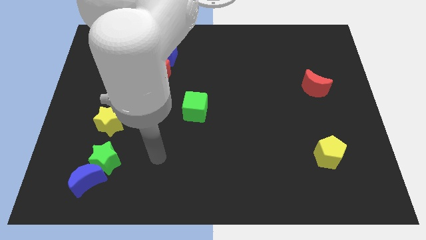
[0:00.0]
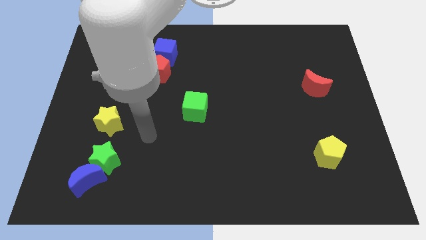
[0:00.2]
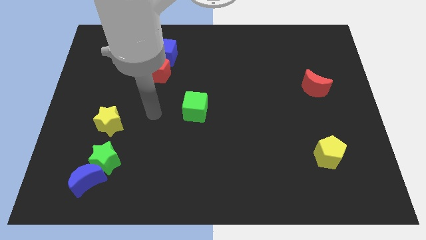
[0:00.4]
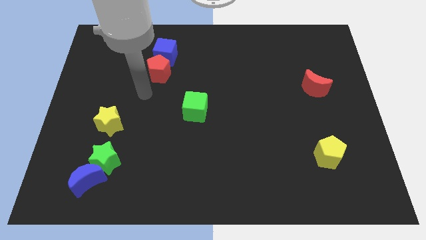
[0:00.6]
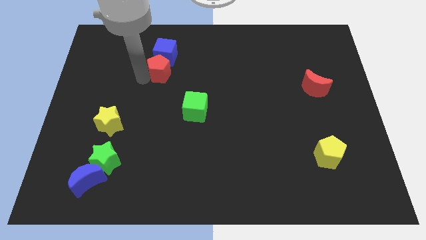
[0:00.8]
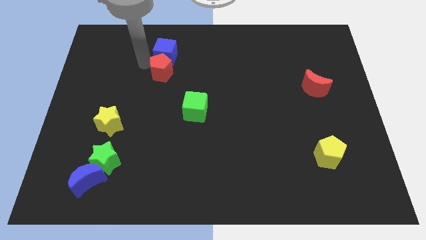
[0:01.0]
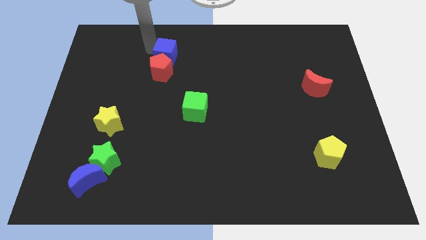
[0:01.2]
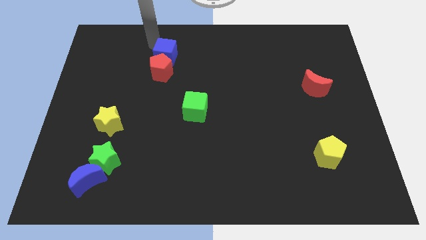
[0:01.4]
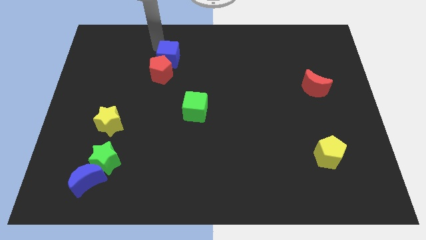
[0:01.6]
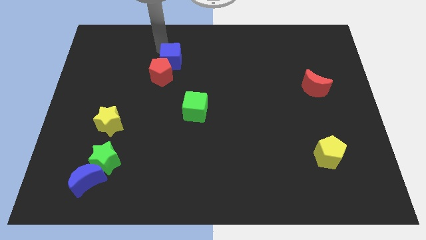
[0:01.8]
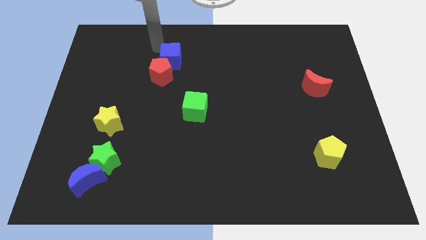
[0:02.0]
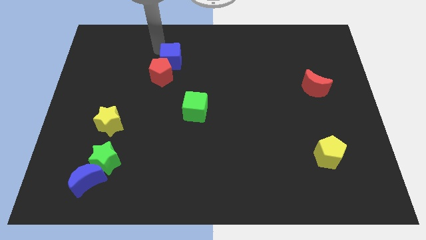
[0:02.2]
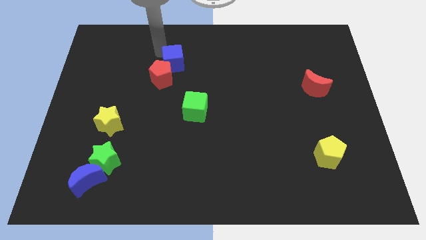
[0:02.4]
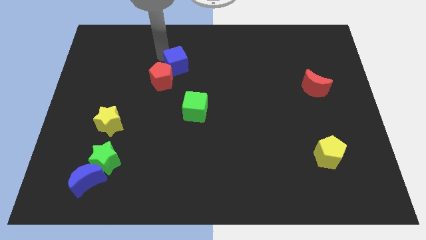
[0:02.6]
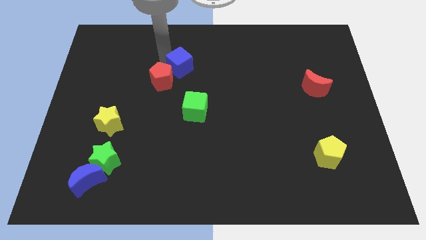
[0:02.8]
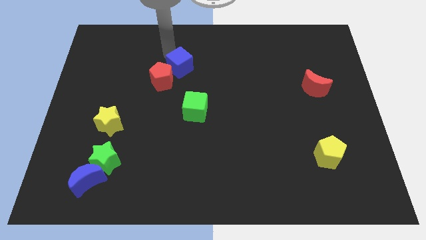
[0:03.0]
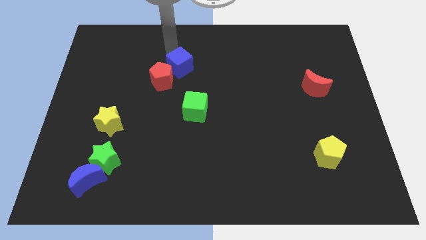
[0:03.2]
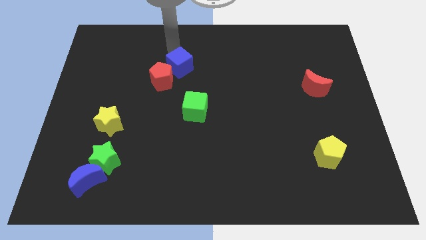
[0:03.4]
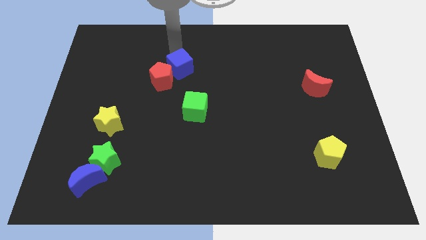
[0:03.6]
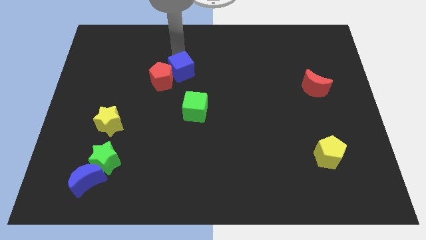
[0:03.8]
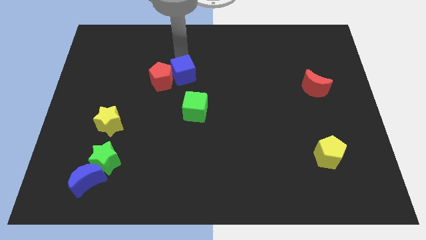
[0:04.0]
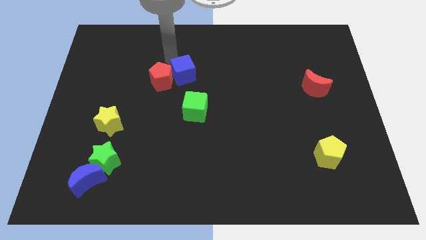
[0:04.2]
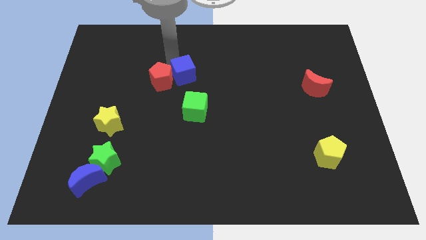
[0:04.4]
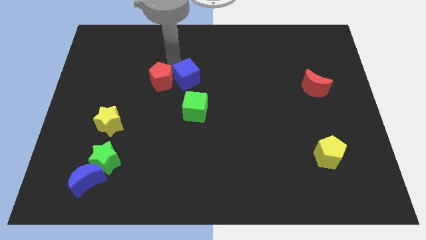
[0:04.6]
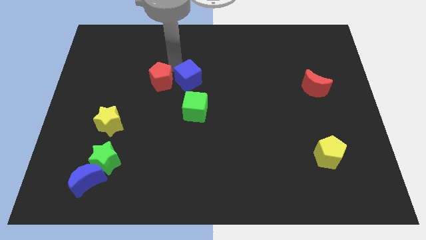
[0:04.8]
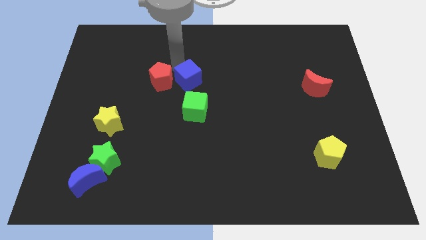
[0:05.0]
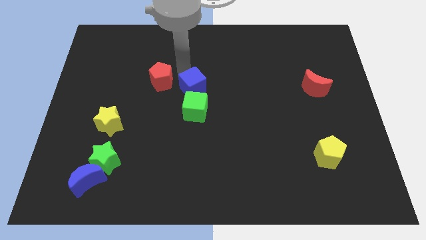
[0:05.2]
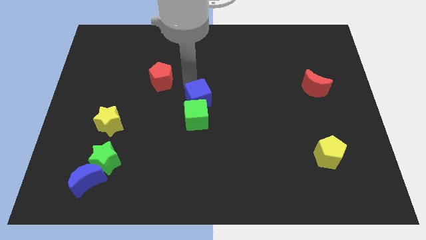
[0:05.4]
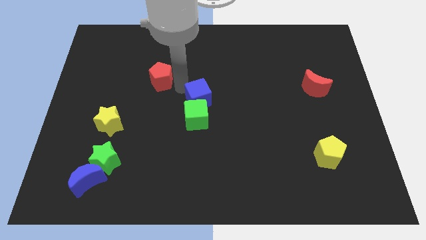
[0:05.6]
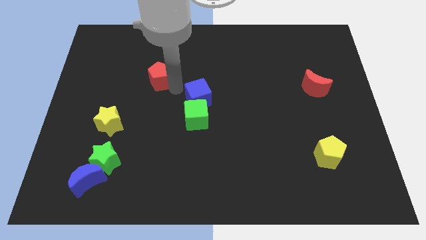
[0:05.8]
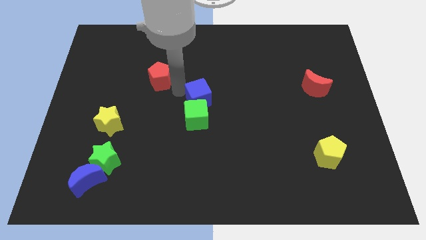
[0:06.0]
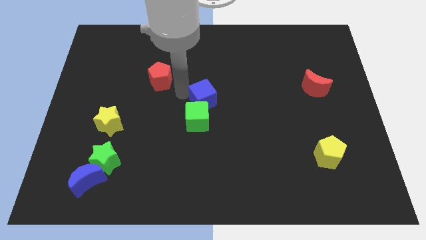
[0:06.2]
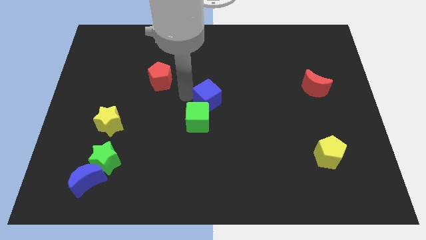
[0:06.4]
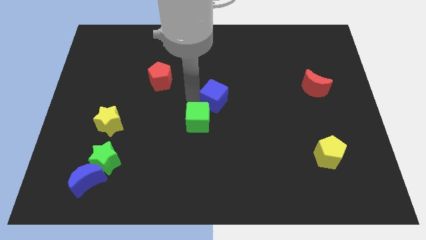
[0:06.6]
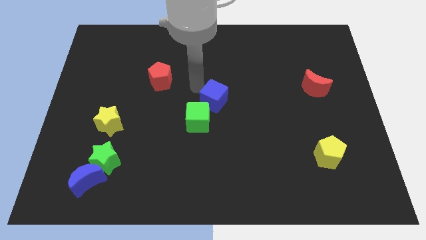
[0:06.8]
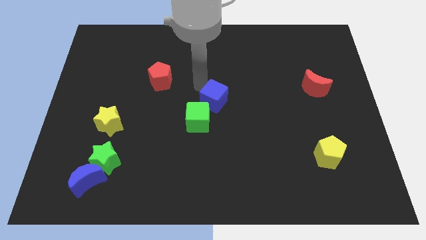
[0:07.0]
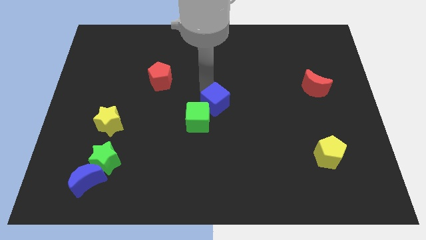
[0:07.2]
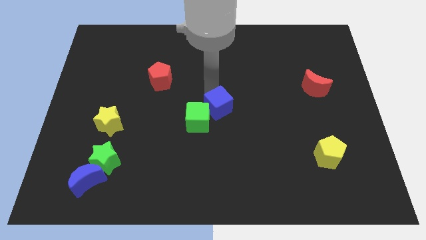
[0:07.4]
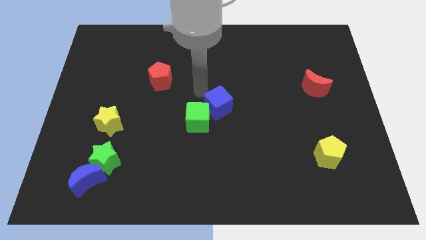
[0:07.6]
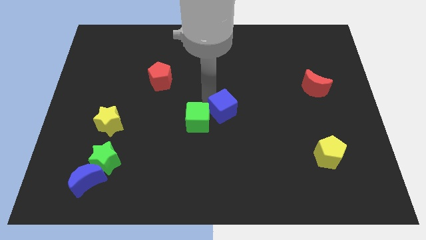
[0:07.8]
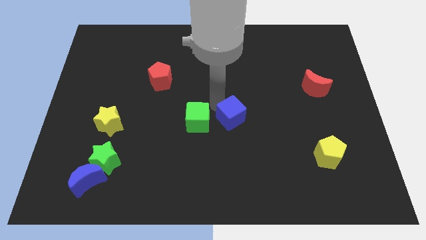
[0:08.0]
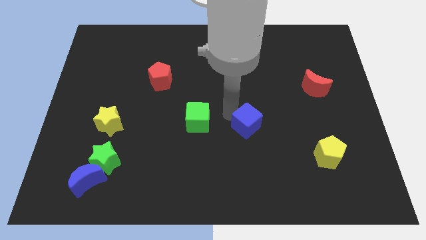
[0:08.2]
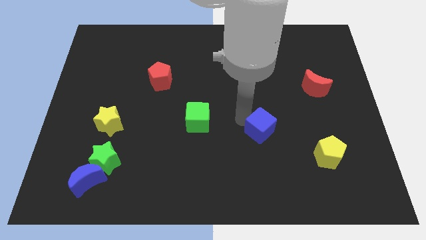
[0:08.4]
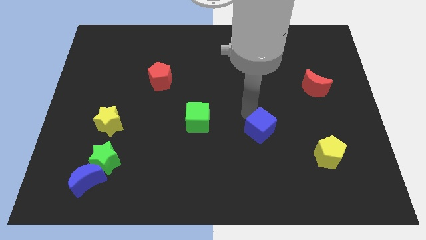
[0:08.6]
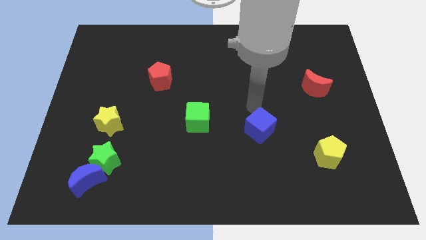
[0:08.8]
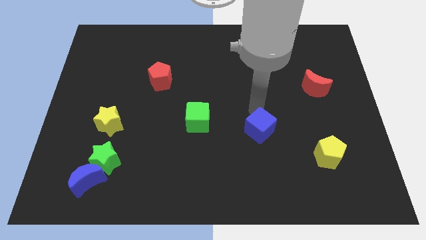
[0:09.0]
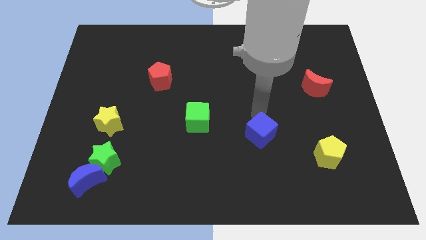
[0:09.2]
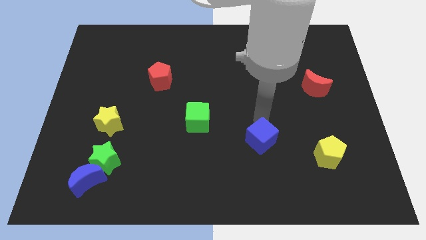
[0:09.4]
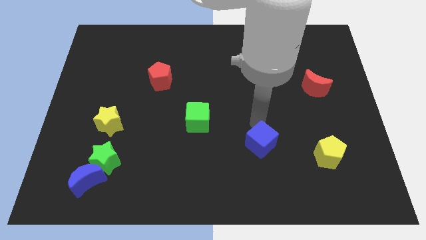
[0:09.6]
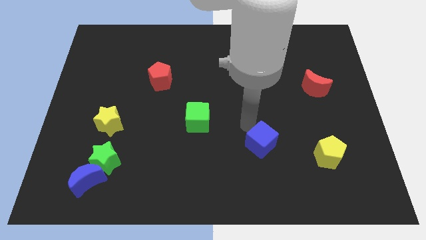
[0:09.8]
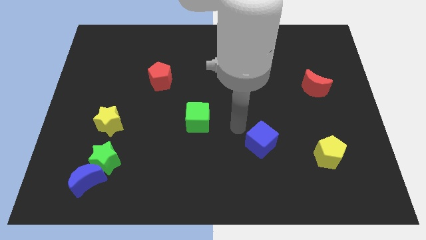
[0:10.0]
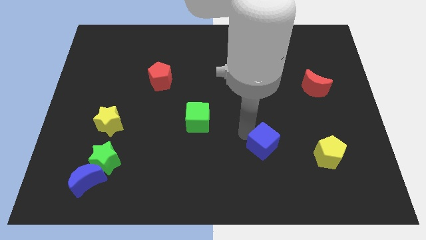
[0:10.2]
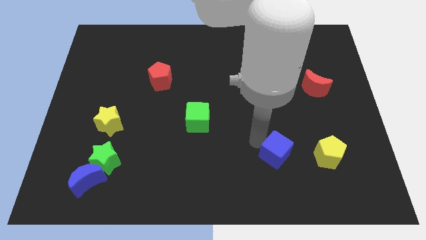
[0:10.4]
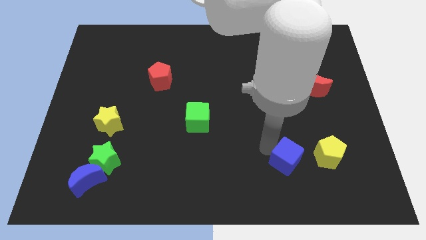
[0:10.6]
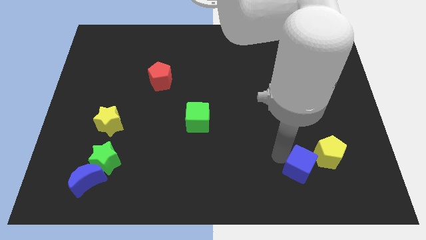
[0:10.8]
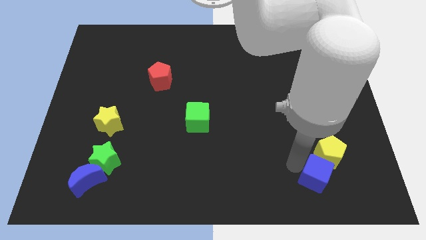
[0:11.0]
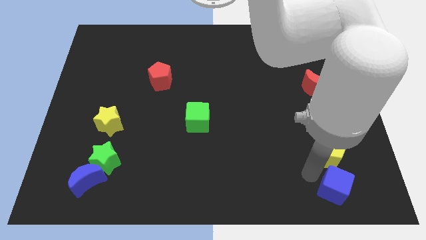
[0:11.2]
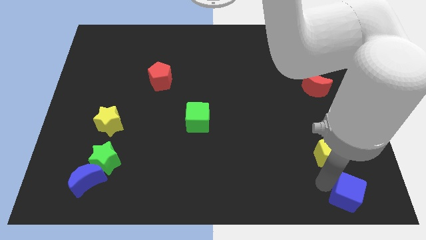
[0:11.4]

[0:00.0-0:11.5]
slide the blue cube to the bottom right of the board

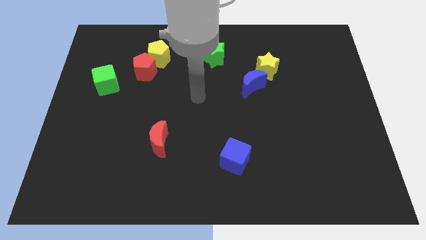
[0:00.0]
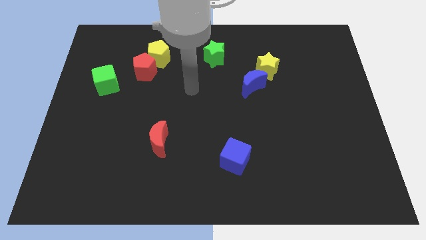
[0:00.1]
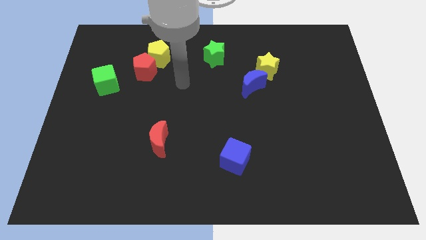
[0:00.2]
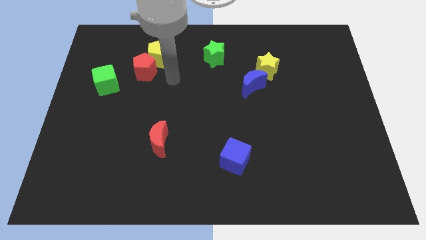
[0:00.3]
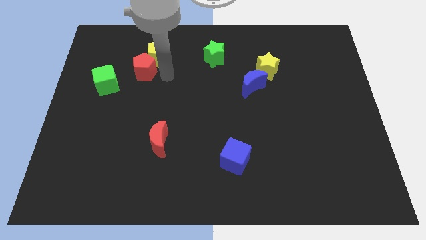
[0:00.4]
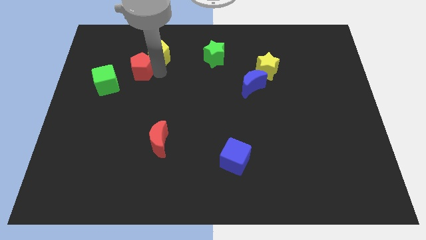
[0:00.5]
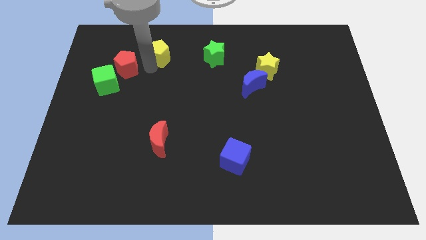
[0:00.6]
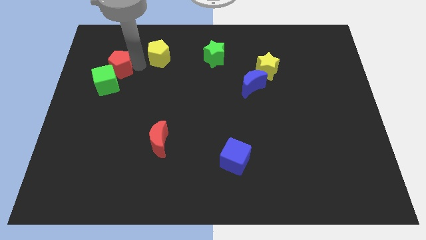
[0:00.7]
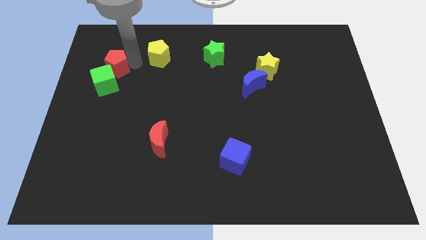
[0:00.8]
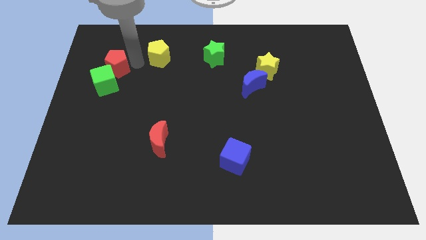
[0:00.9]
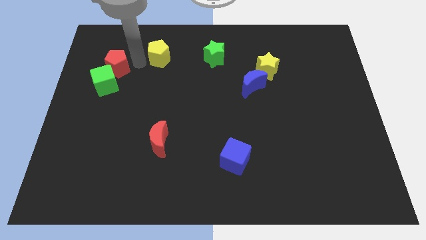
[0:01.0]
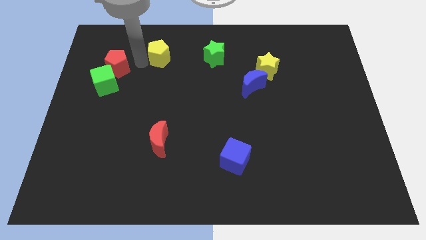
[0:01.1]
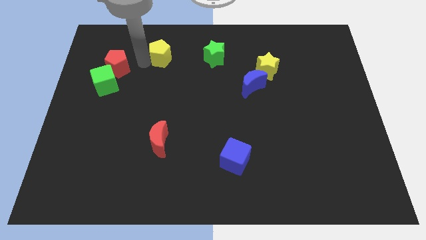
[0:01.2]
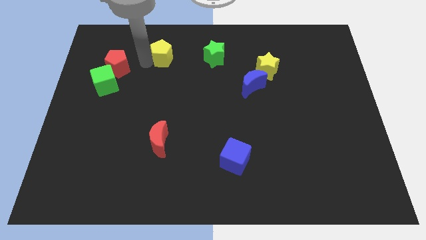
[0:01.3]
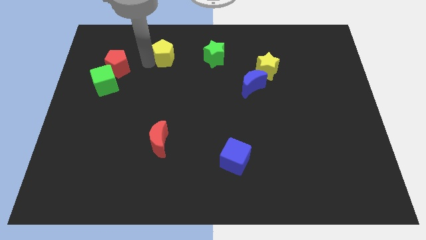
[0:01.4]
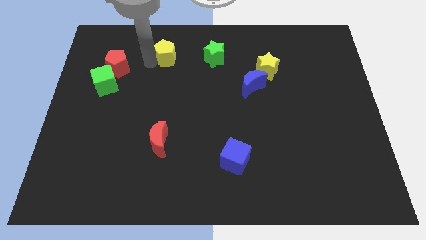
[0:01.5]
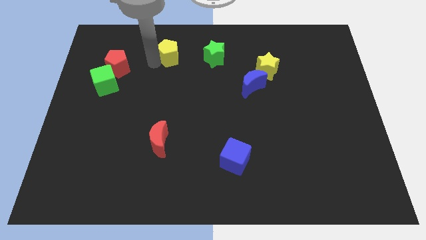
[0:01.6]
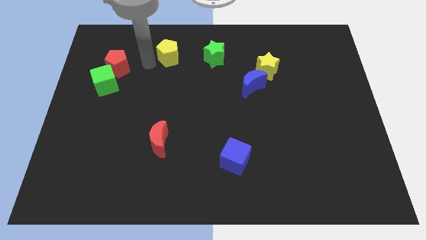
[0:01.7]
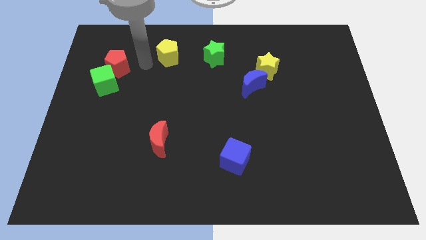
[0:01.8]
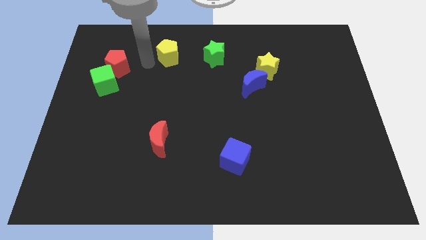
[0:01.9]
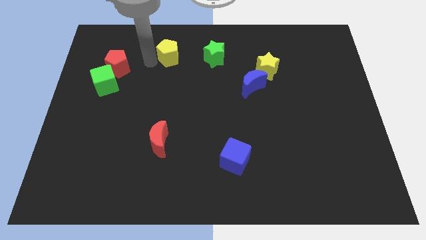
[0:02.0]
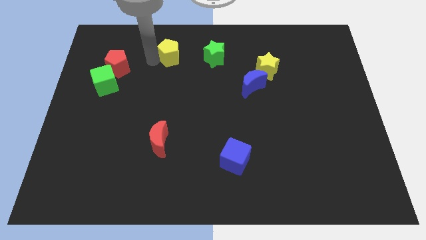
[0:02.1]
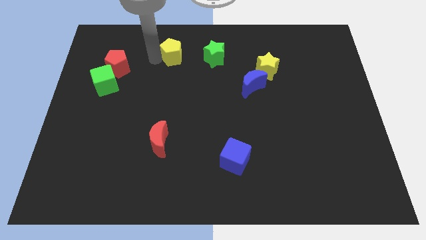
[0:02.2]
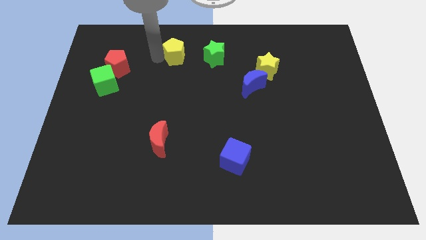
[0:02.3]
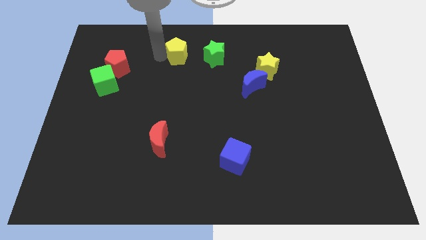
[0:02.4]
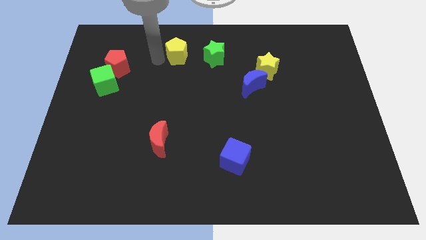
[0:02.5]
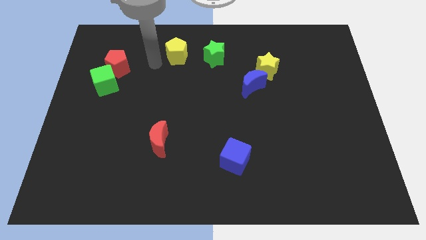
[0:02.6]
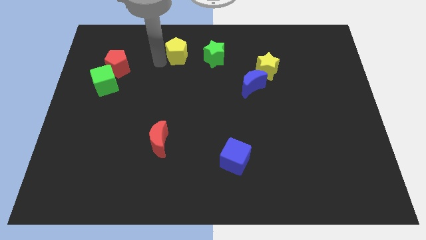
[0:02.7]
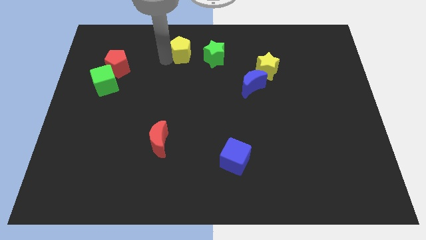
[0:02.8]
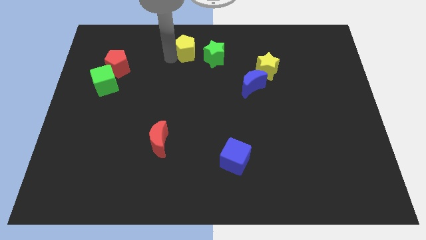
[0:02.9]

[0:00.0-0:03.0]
move the yellow pentagon to the top side
